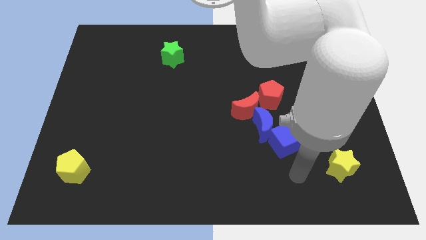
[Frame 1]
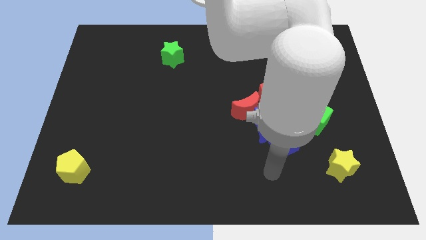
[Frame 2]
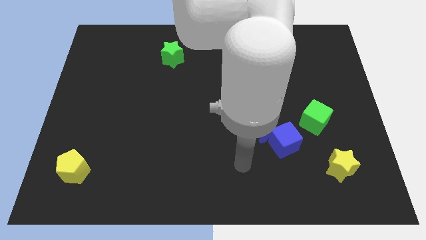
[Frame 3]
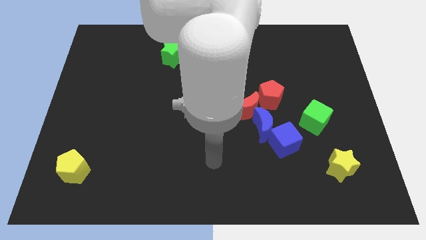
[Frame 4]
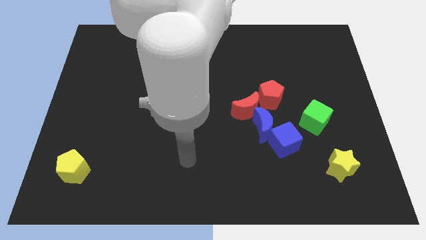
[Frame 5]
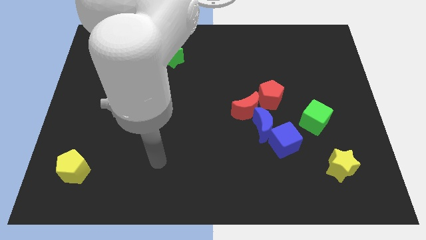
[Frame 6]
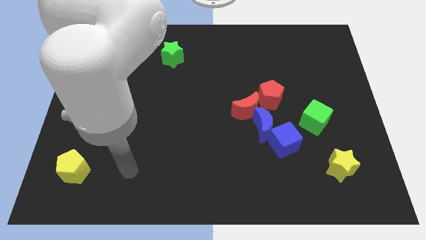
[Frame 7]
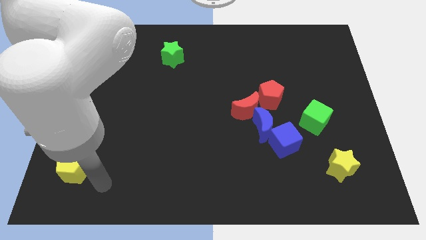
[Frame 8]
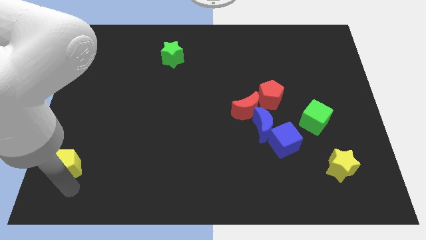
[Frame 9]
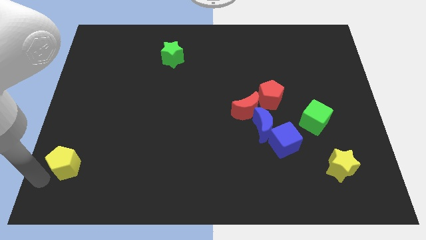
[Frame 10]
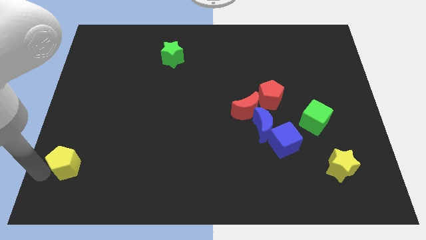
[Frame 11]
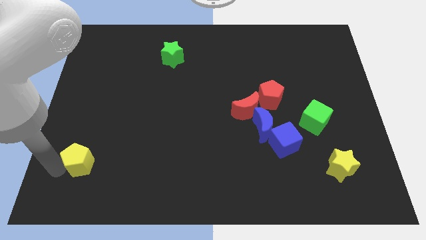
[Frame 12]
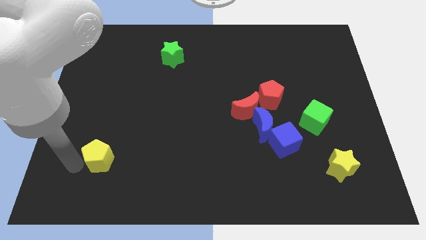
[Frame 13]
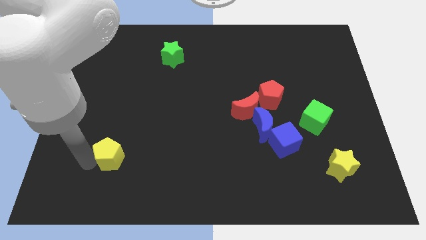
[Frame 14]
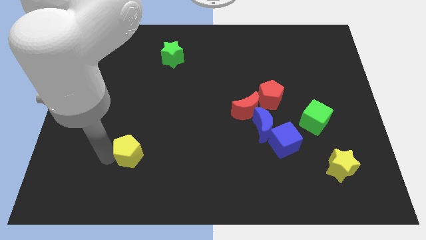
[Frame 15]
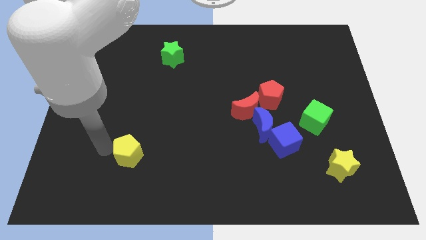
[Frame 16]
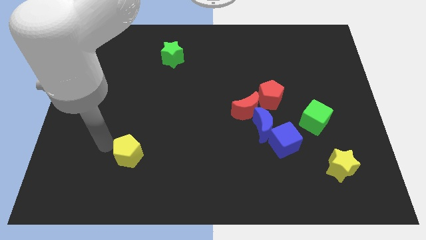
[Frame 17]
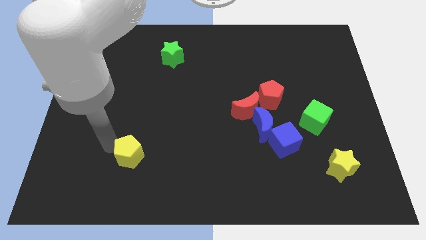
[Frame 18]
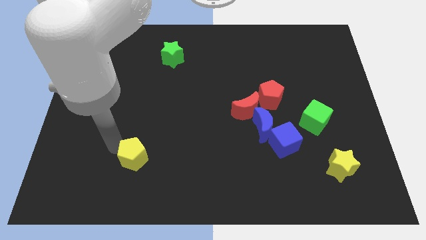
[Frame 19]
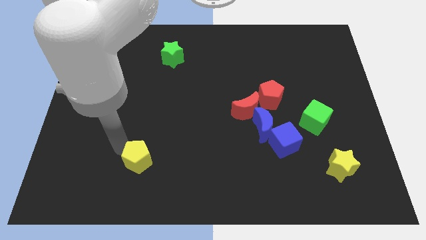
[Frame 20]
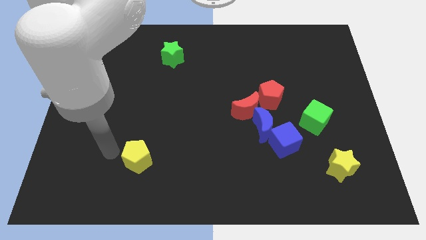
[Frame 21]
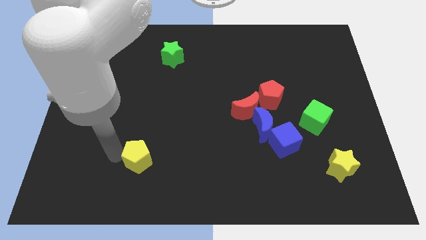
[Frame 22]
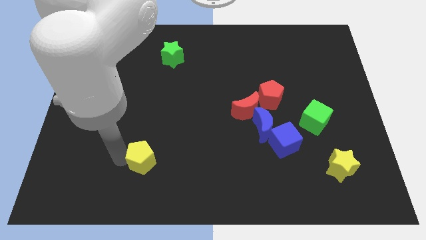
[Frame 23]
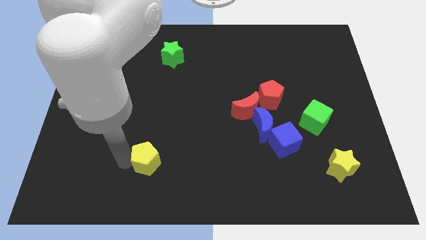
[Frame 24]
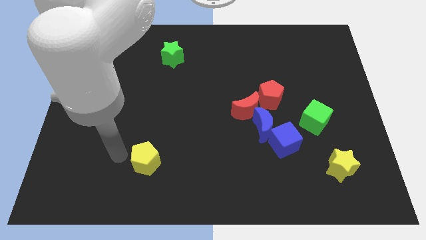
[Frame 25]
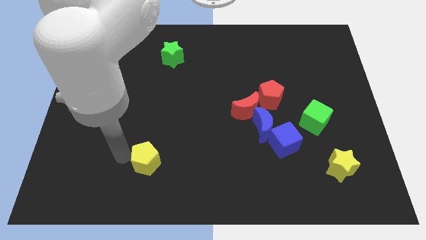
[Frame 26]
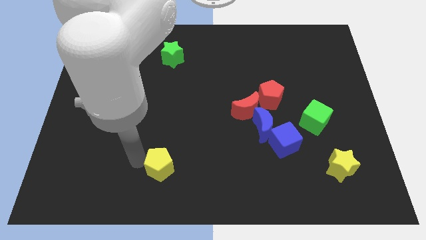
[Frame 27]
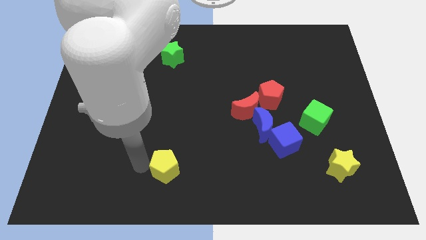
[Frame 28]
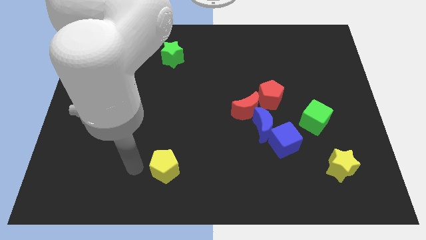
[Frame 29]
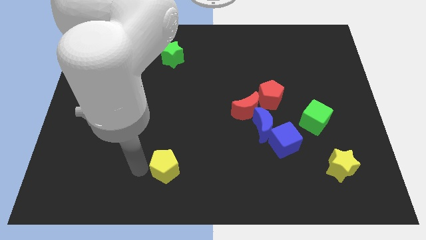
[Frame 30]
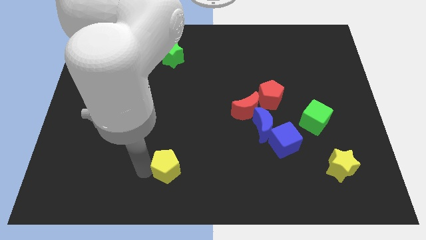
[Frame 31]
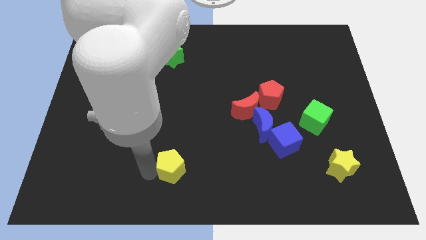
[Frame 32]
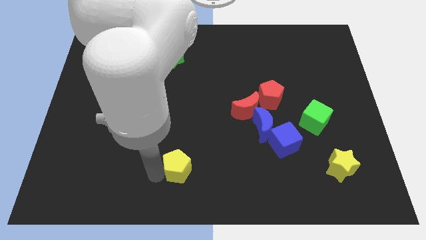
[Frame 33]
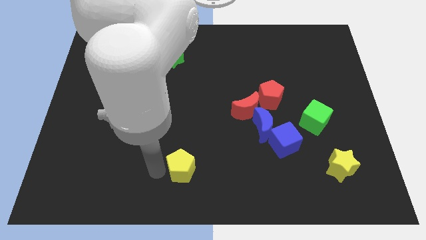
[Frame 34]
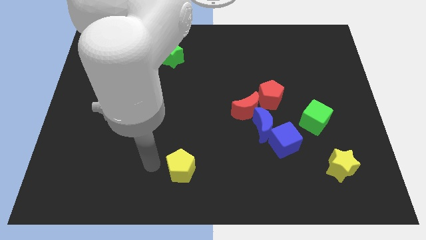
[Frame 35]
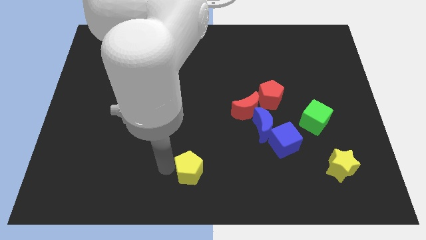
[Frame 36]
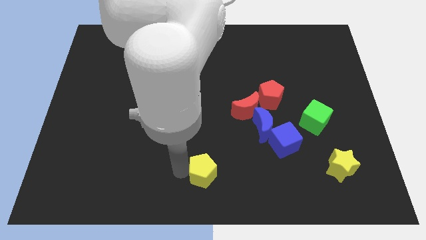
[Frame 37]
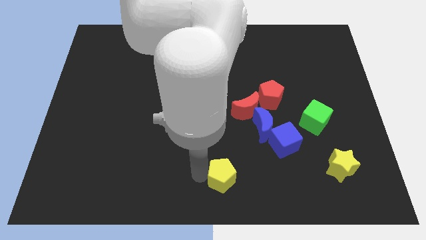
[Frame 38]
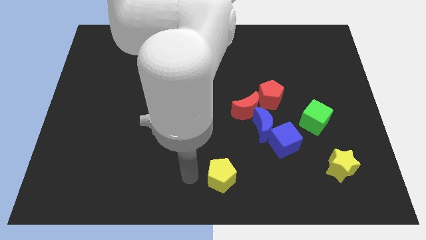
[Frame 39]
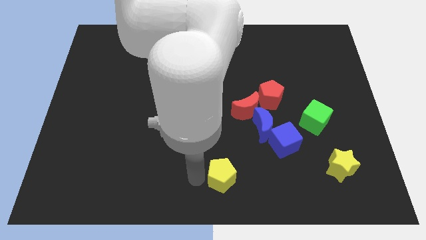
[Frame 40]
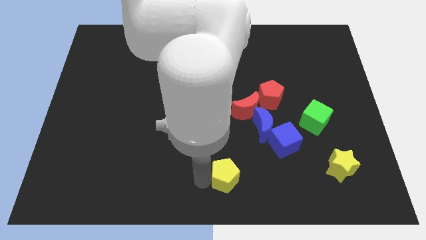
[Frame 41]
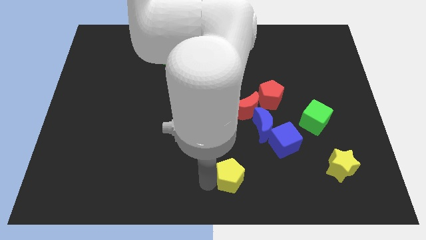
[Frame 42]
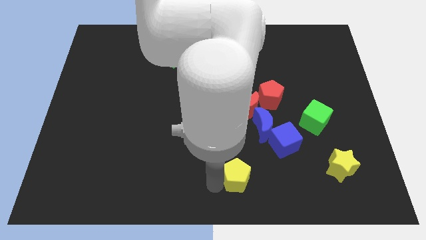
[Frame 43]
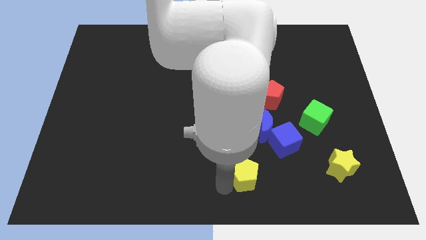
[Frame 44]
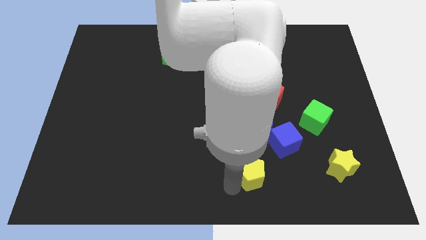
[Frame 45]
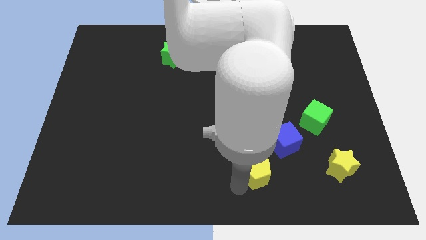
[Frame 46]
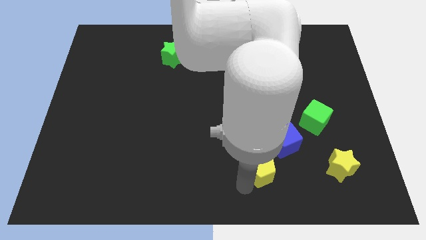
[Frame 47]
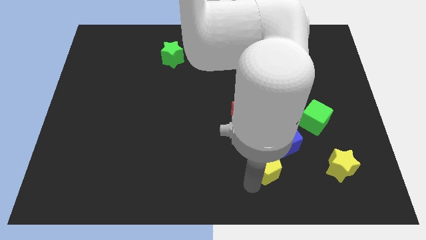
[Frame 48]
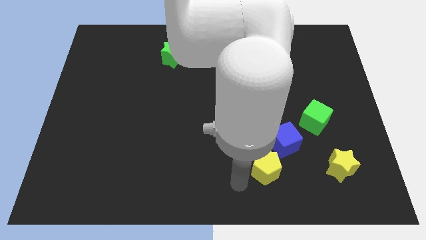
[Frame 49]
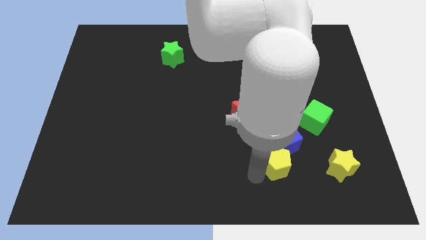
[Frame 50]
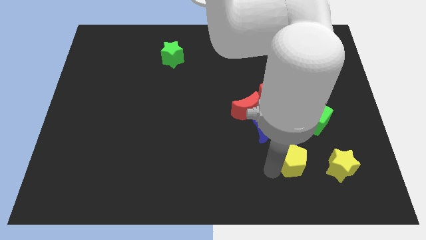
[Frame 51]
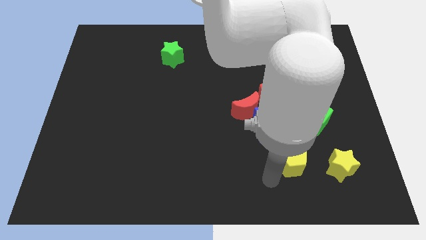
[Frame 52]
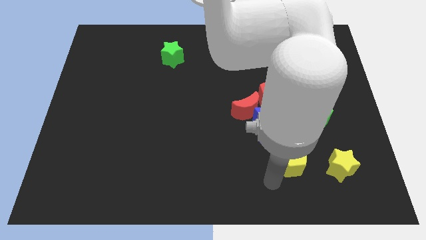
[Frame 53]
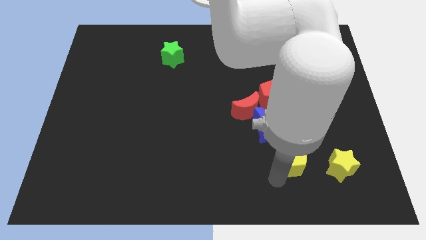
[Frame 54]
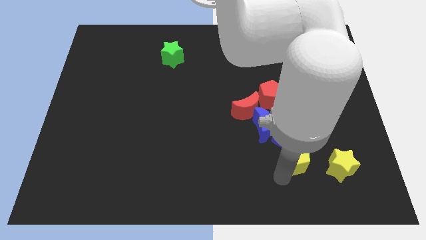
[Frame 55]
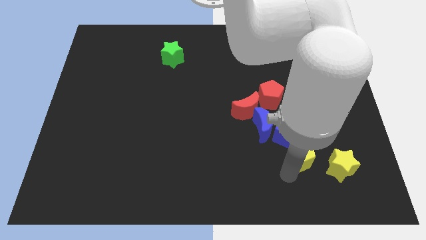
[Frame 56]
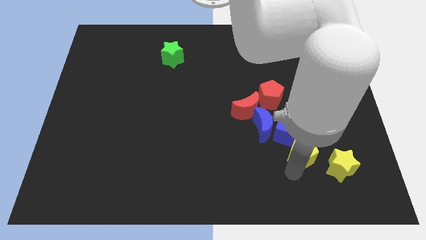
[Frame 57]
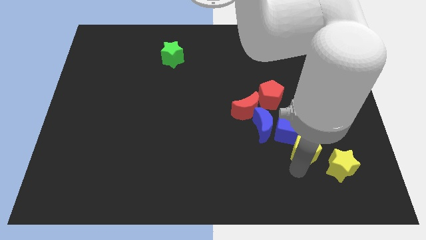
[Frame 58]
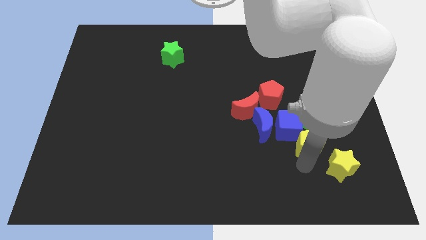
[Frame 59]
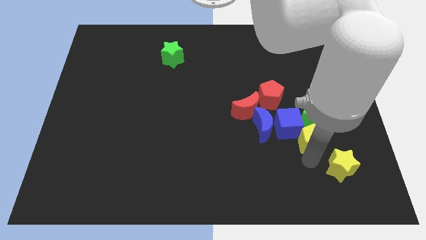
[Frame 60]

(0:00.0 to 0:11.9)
move the yellow pentagon next to the green cube

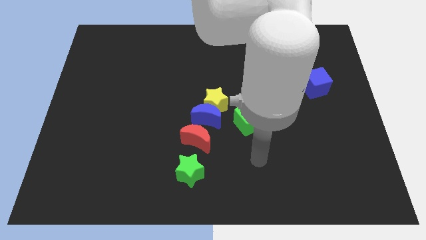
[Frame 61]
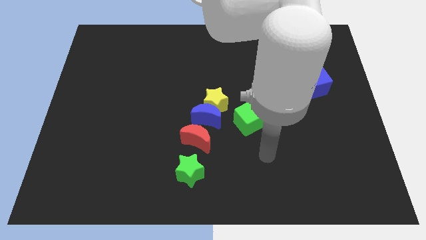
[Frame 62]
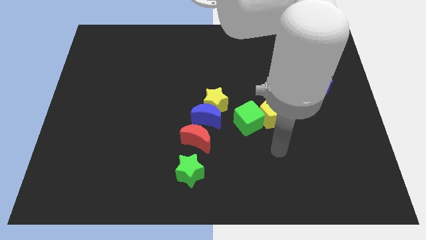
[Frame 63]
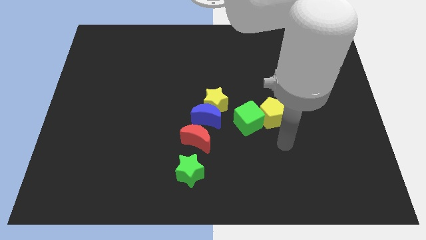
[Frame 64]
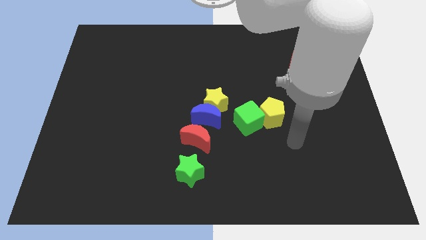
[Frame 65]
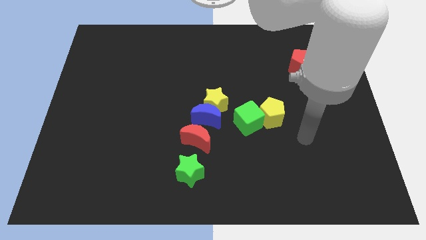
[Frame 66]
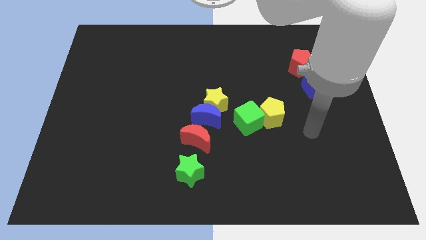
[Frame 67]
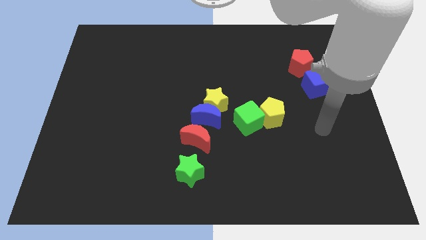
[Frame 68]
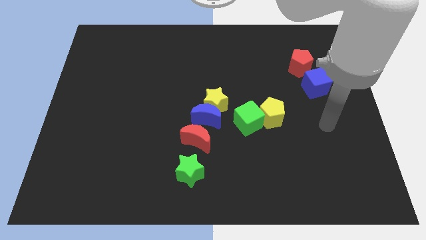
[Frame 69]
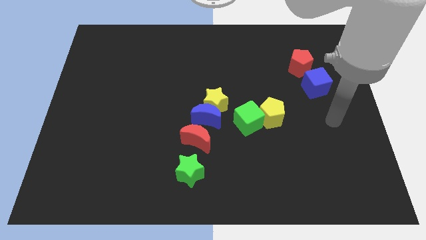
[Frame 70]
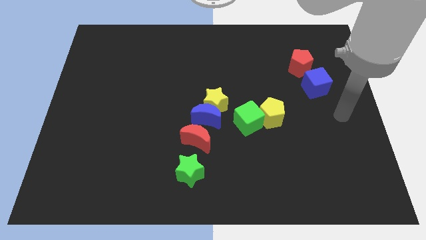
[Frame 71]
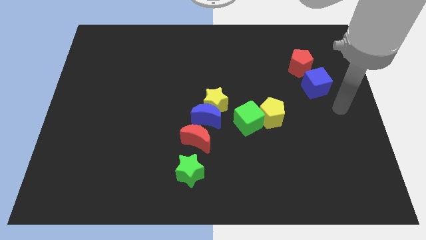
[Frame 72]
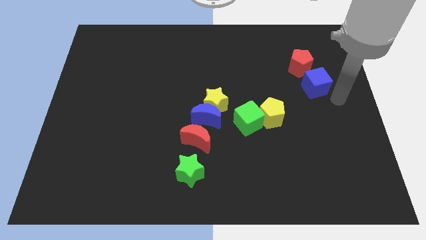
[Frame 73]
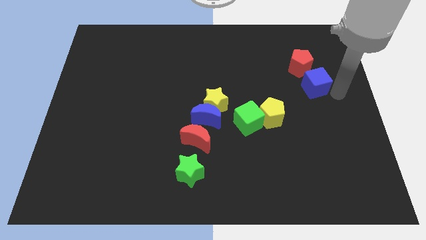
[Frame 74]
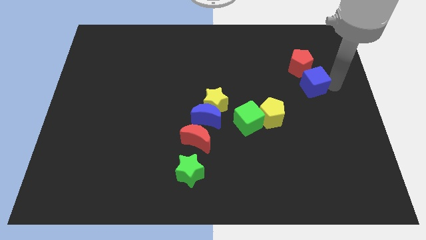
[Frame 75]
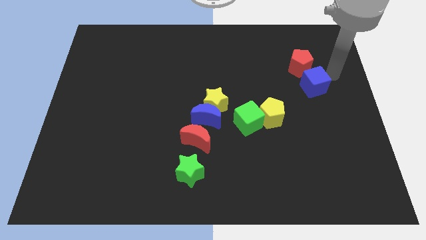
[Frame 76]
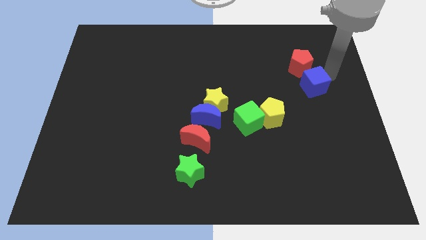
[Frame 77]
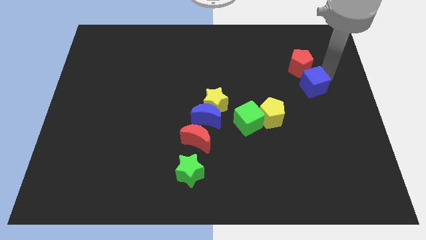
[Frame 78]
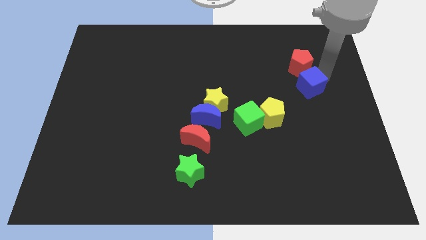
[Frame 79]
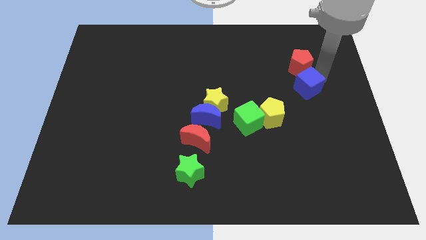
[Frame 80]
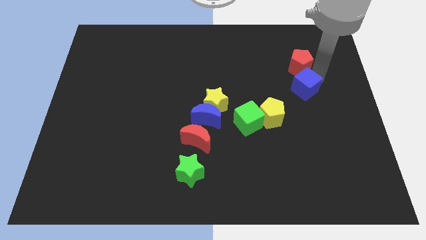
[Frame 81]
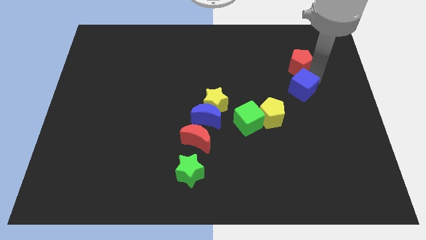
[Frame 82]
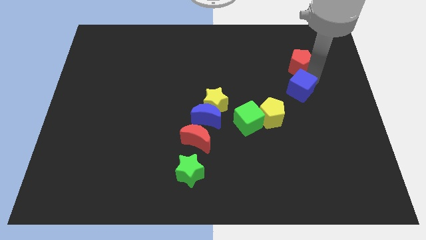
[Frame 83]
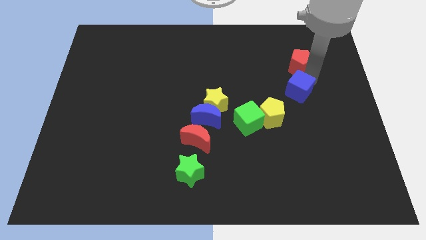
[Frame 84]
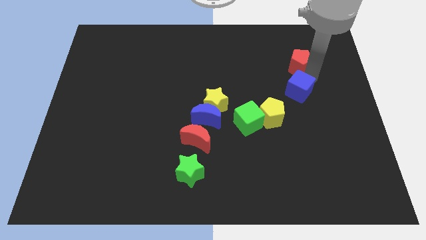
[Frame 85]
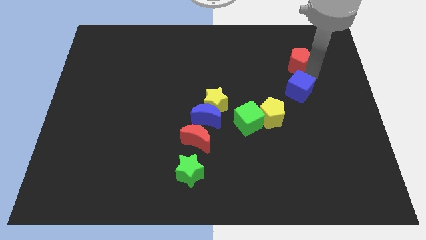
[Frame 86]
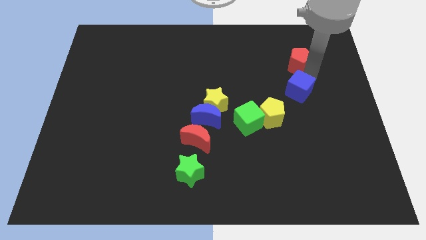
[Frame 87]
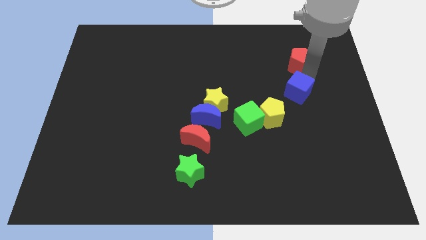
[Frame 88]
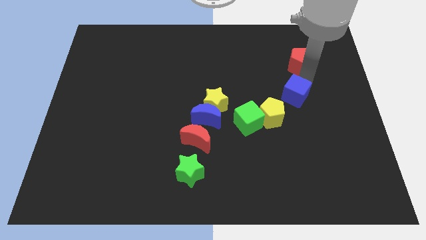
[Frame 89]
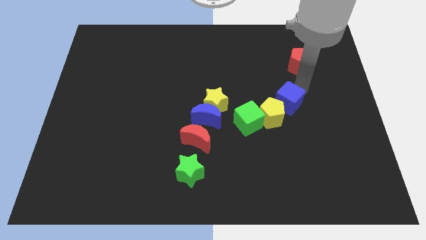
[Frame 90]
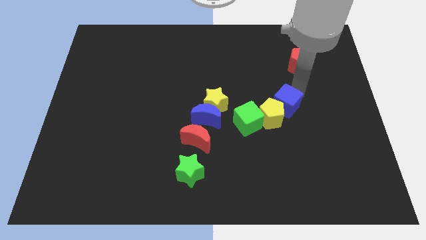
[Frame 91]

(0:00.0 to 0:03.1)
move the blue cube next to the yellow pentagon
